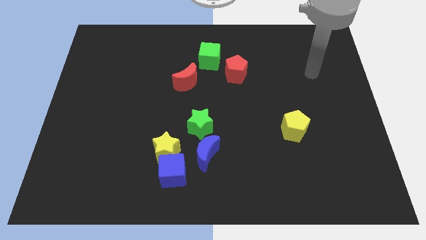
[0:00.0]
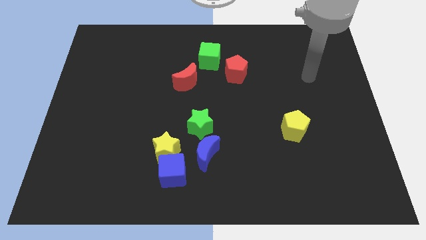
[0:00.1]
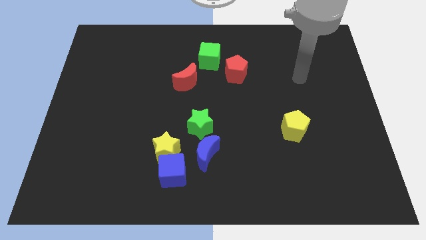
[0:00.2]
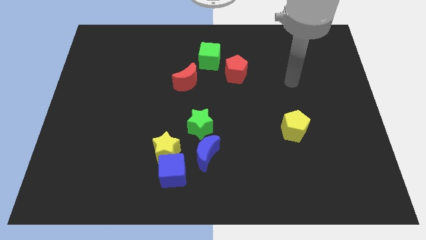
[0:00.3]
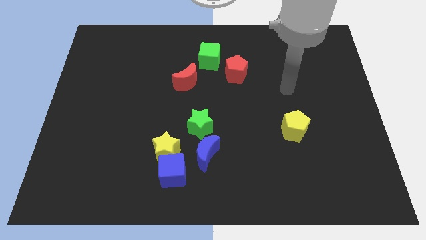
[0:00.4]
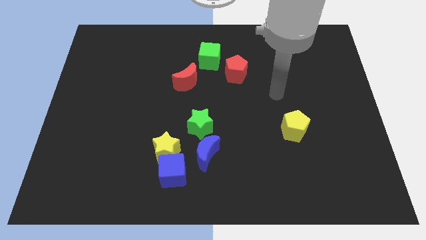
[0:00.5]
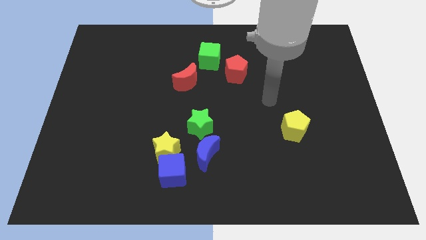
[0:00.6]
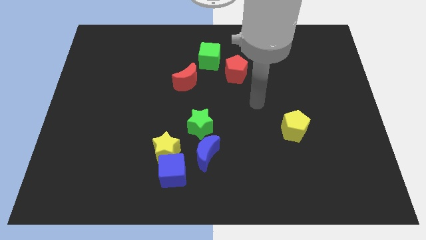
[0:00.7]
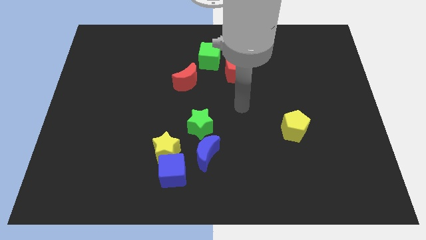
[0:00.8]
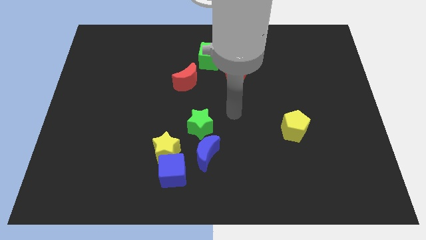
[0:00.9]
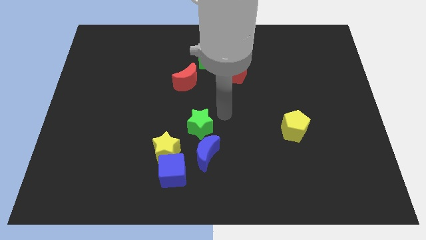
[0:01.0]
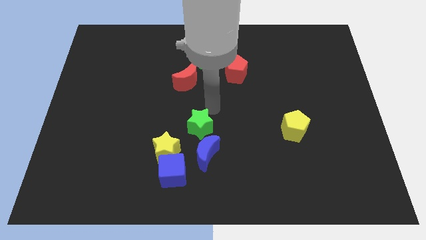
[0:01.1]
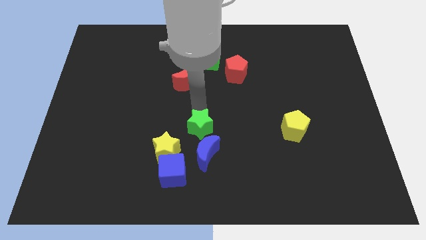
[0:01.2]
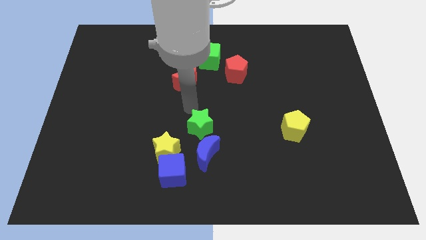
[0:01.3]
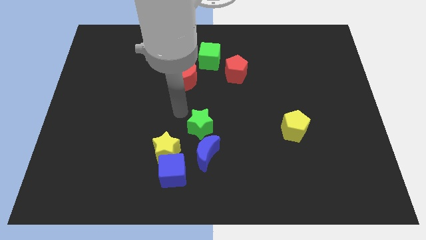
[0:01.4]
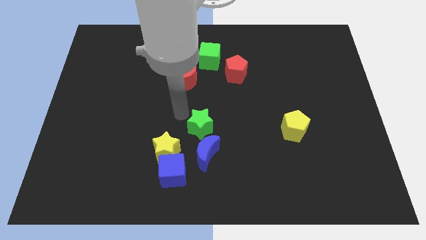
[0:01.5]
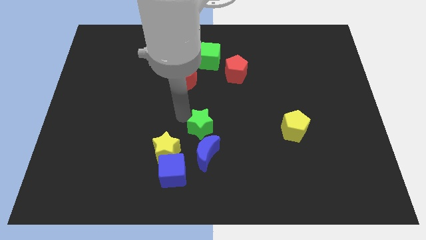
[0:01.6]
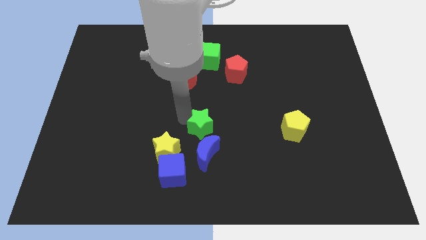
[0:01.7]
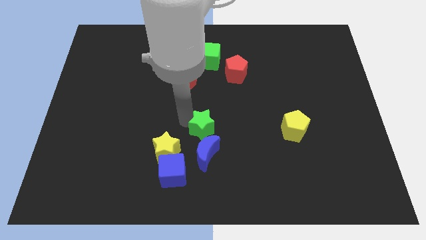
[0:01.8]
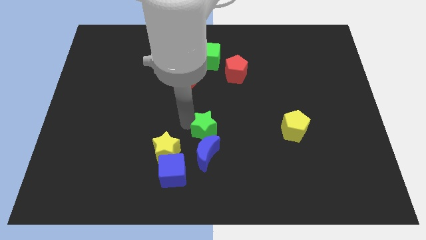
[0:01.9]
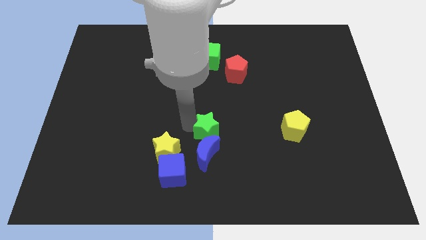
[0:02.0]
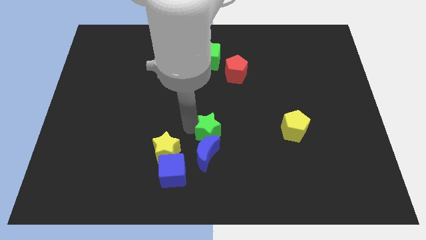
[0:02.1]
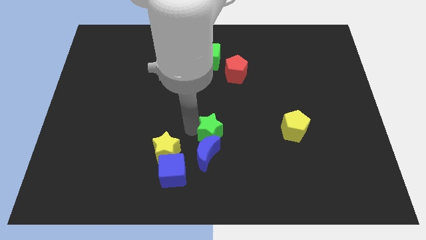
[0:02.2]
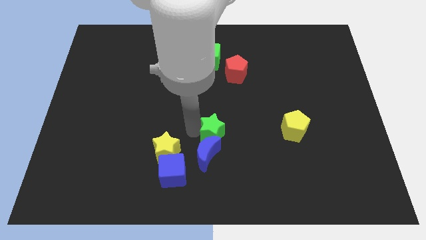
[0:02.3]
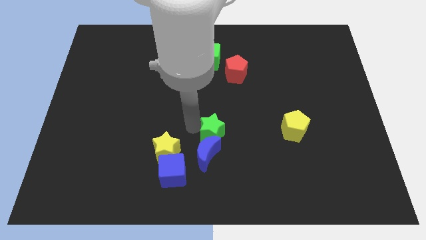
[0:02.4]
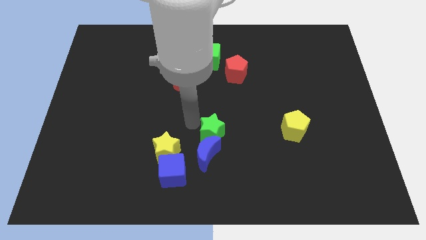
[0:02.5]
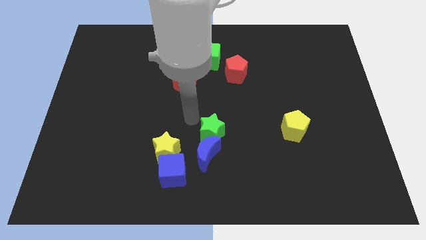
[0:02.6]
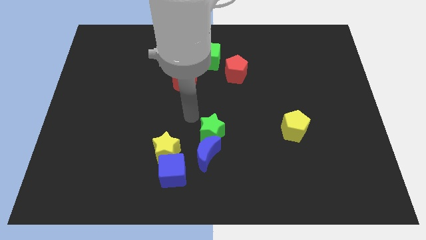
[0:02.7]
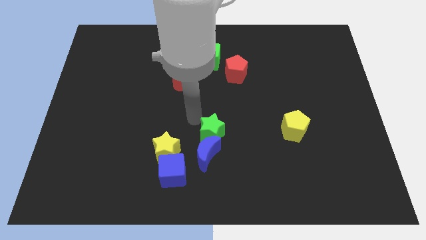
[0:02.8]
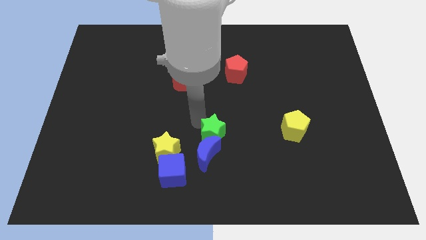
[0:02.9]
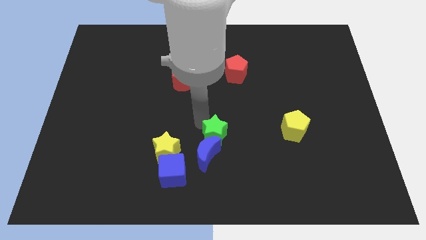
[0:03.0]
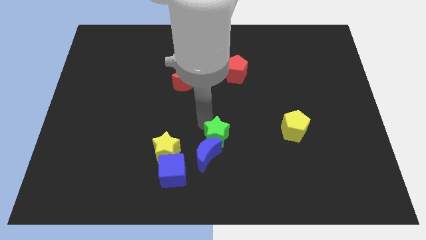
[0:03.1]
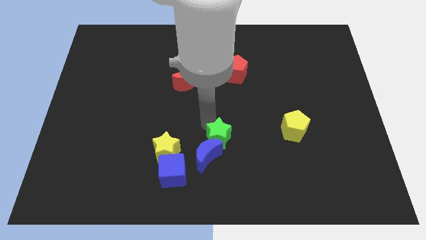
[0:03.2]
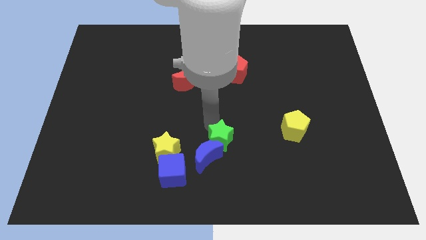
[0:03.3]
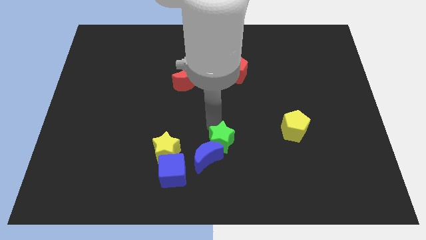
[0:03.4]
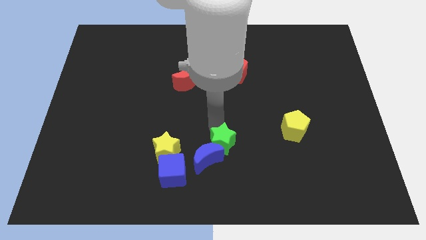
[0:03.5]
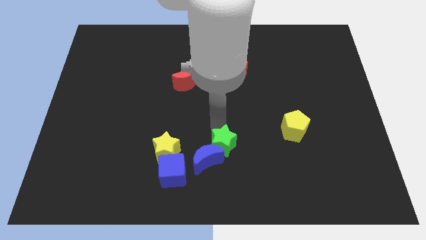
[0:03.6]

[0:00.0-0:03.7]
slightly push the green star down and then to the right

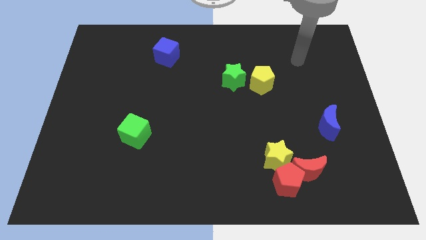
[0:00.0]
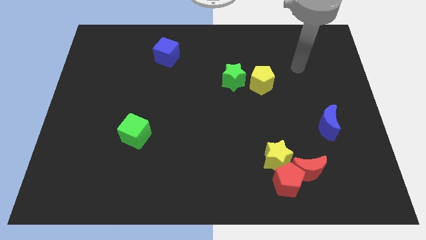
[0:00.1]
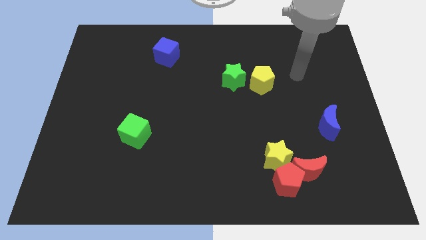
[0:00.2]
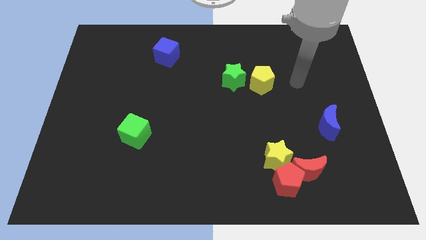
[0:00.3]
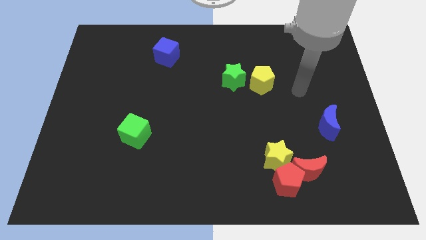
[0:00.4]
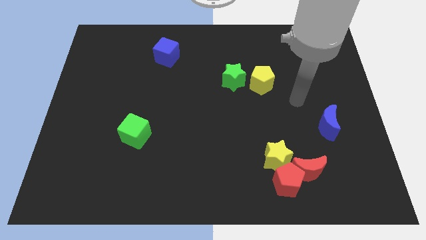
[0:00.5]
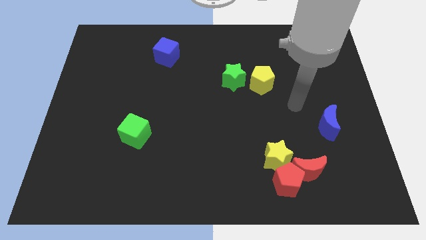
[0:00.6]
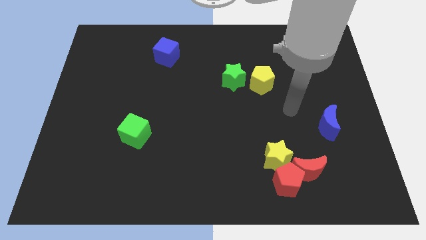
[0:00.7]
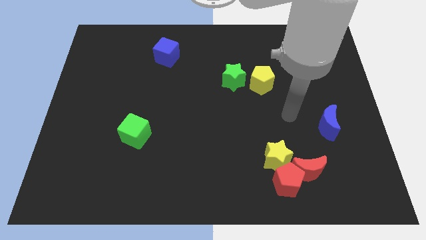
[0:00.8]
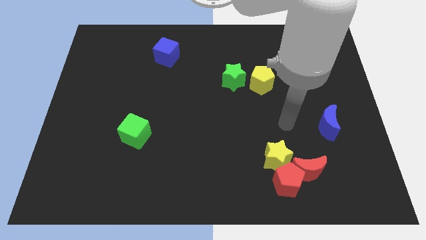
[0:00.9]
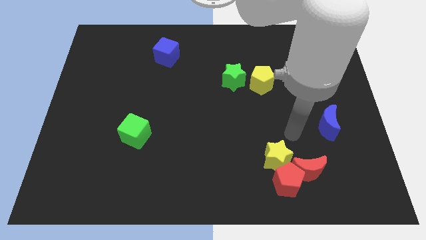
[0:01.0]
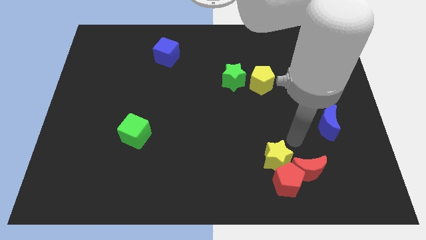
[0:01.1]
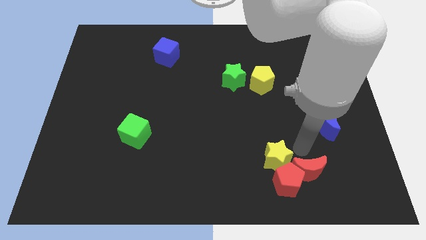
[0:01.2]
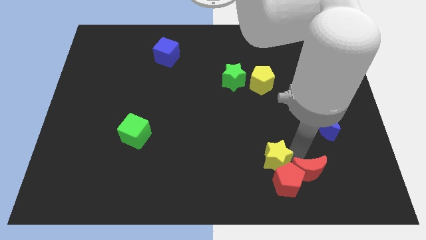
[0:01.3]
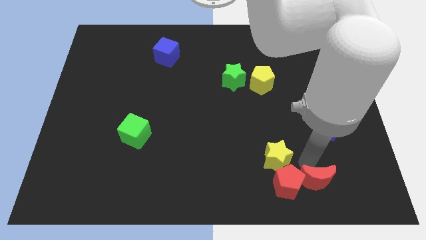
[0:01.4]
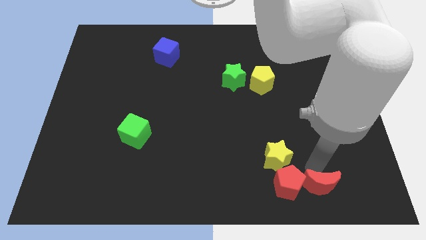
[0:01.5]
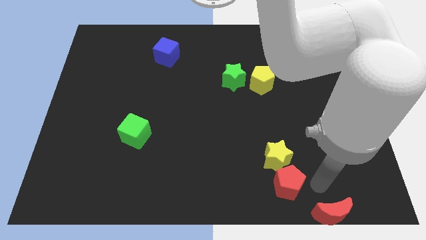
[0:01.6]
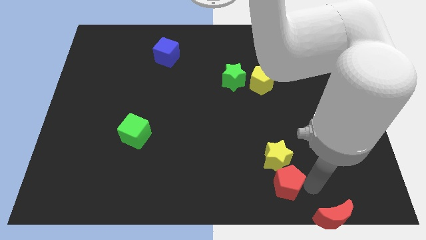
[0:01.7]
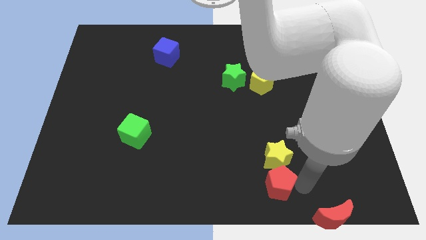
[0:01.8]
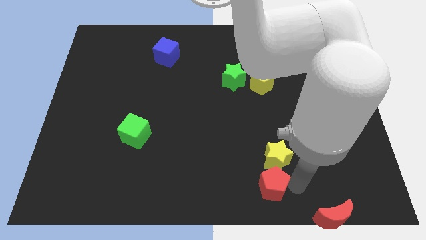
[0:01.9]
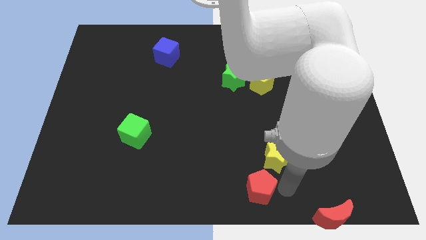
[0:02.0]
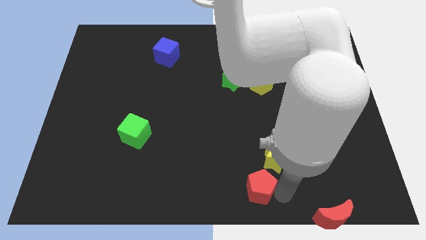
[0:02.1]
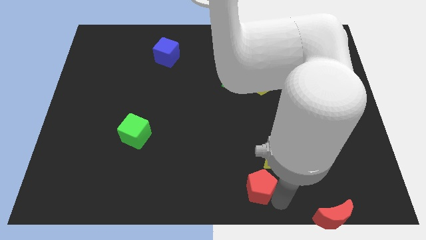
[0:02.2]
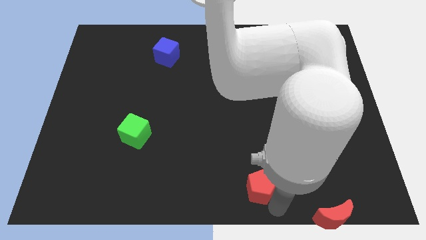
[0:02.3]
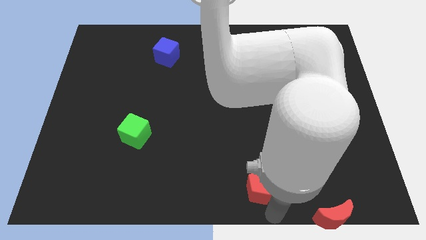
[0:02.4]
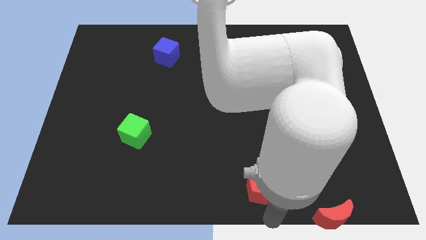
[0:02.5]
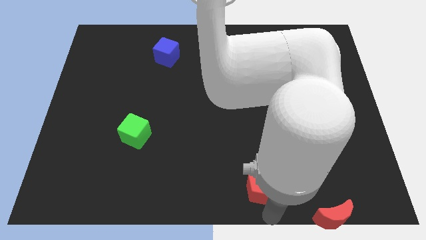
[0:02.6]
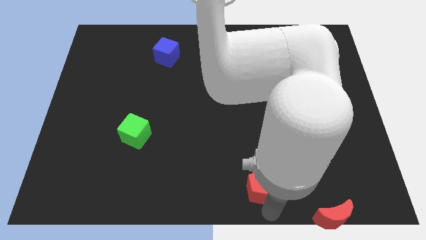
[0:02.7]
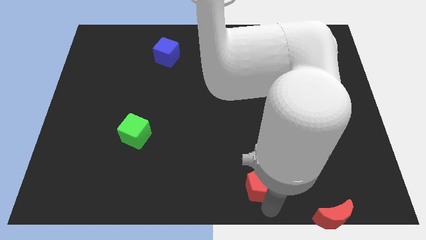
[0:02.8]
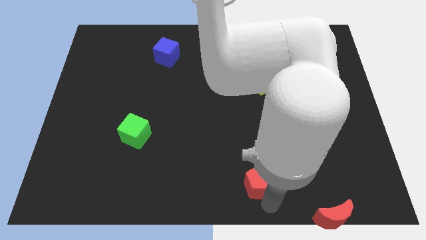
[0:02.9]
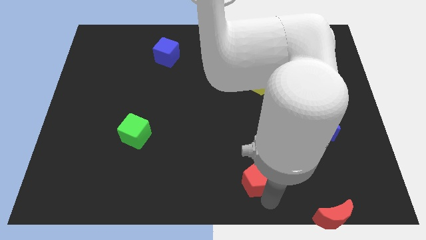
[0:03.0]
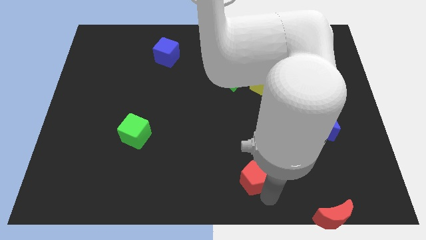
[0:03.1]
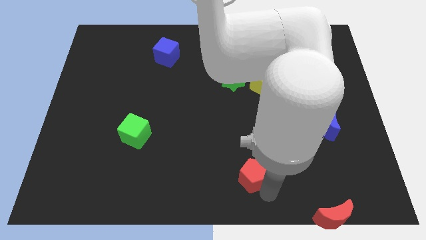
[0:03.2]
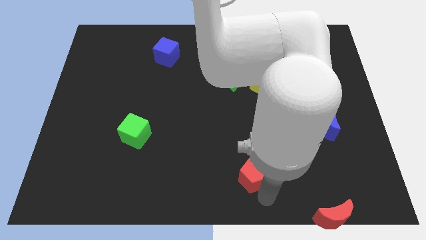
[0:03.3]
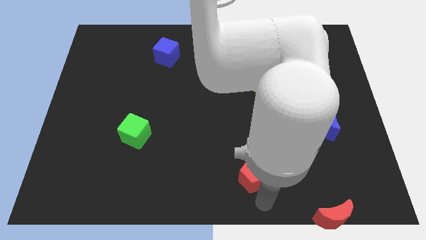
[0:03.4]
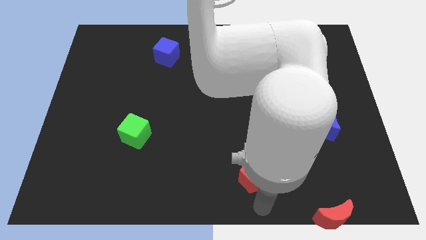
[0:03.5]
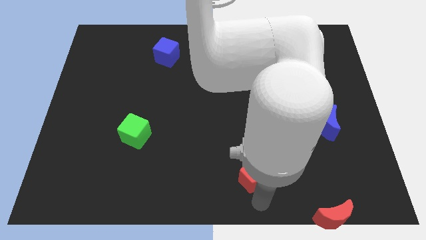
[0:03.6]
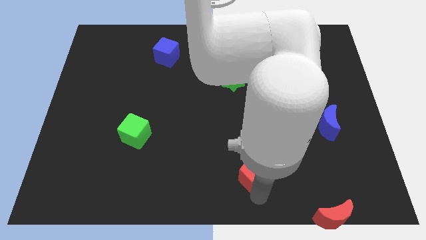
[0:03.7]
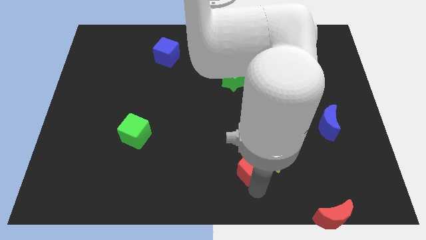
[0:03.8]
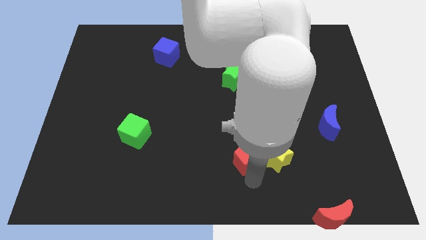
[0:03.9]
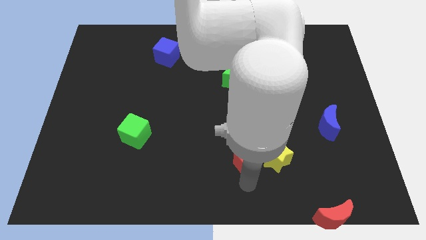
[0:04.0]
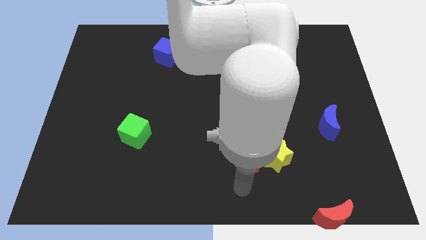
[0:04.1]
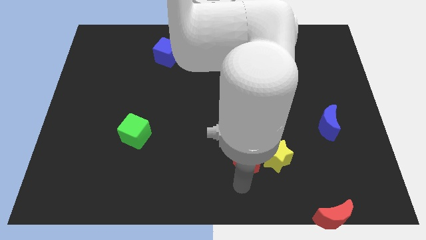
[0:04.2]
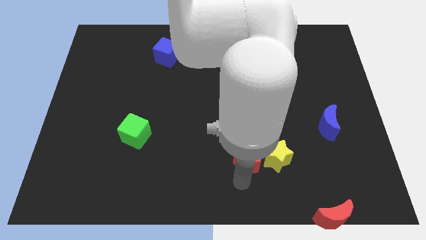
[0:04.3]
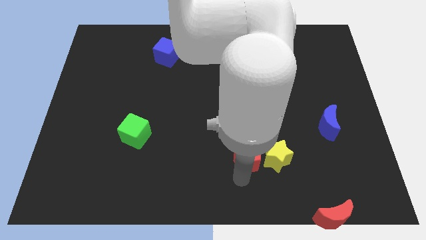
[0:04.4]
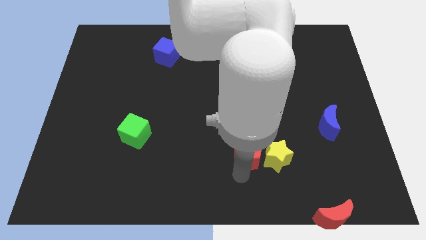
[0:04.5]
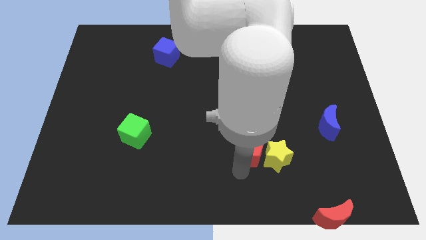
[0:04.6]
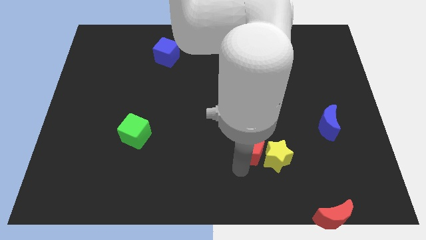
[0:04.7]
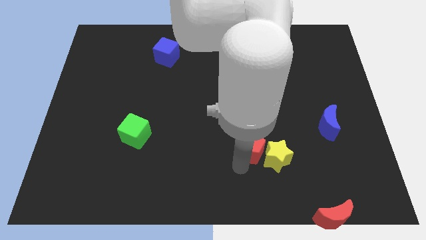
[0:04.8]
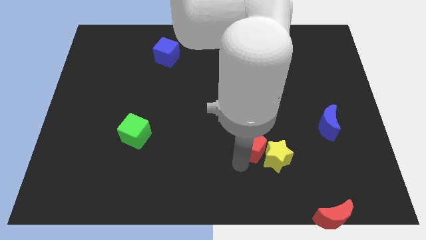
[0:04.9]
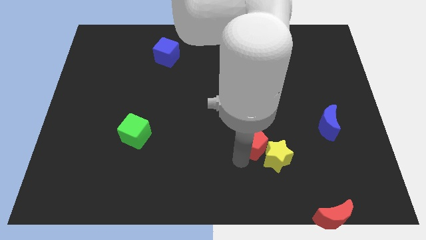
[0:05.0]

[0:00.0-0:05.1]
slightly slide the red pentagon up
